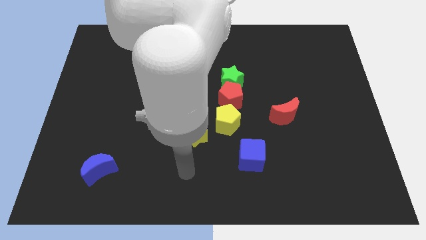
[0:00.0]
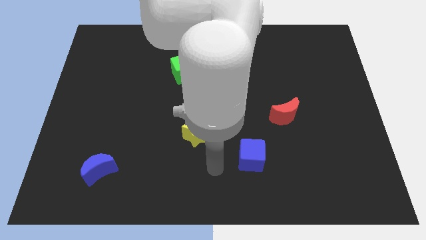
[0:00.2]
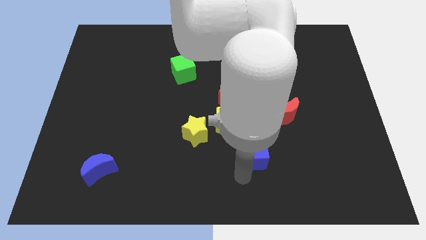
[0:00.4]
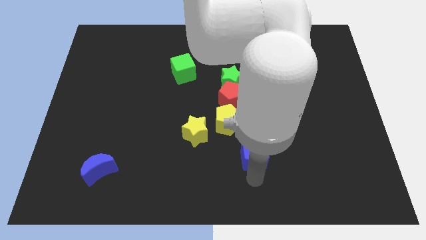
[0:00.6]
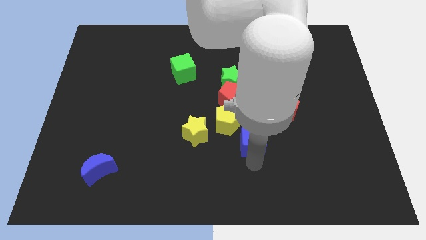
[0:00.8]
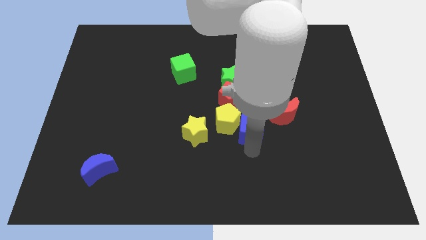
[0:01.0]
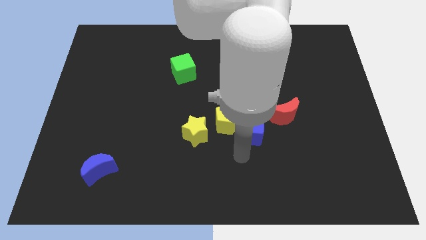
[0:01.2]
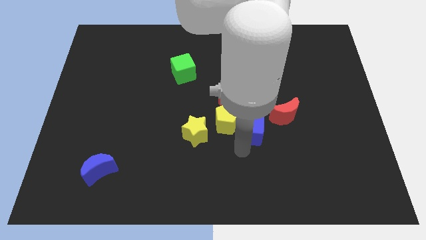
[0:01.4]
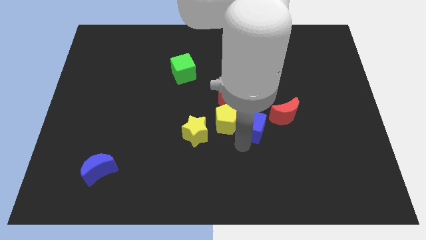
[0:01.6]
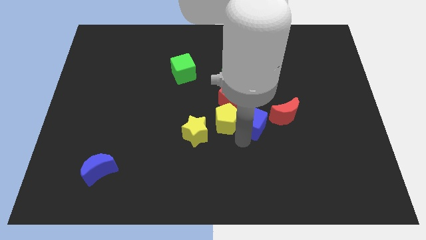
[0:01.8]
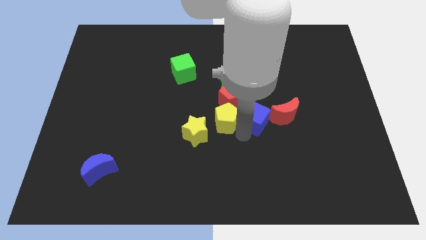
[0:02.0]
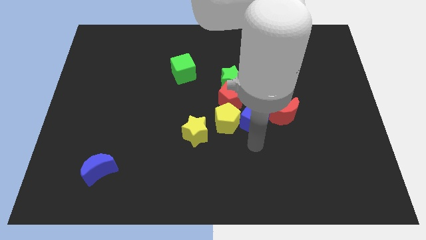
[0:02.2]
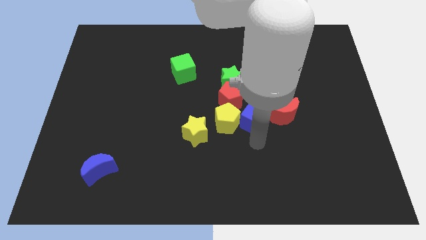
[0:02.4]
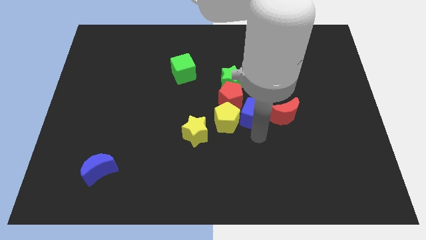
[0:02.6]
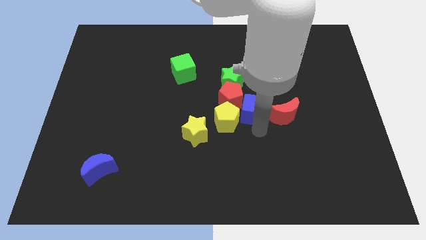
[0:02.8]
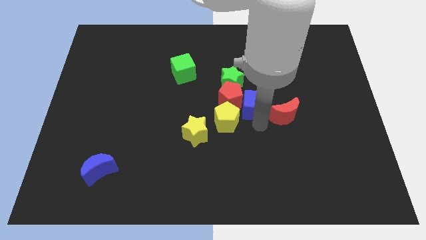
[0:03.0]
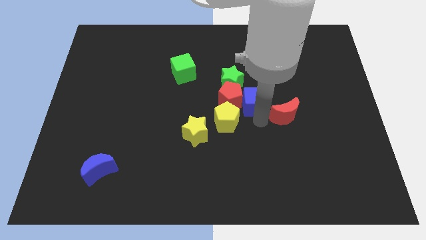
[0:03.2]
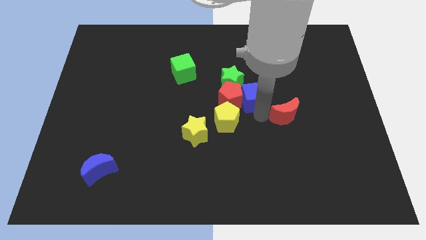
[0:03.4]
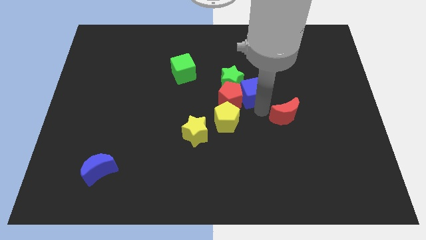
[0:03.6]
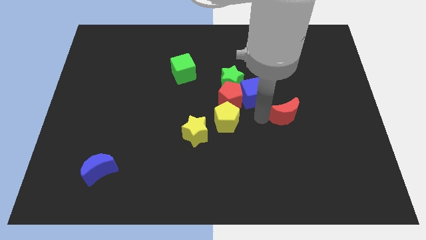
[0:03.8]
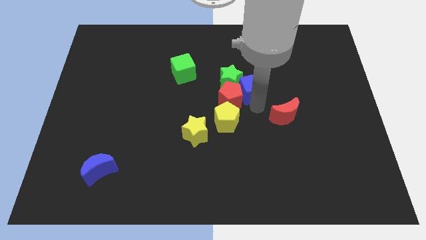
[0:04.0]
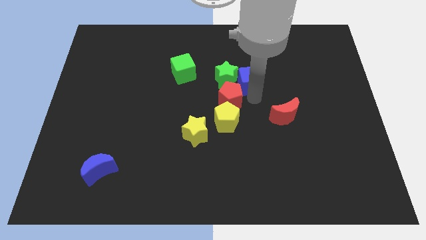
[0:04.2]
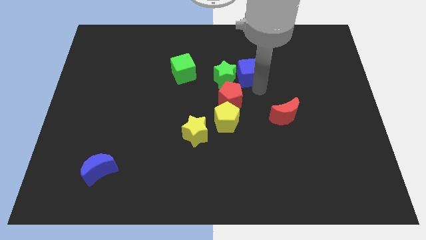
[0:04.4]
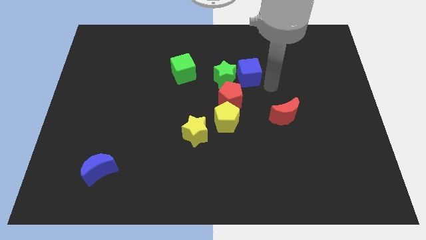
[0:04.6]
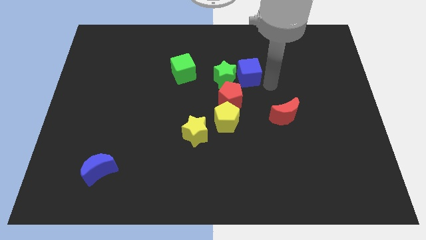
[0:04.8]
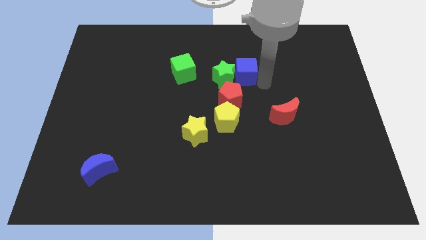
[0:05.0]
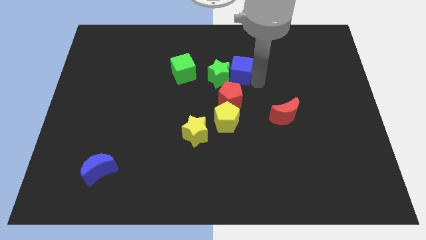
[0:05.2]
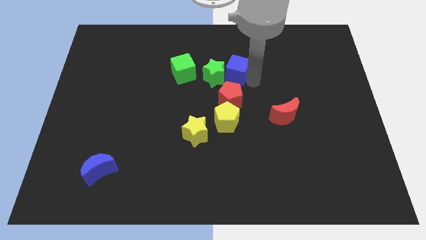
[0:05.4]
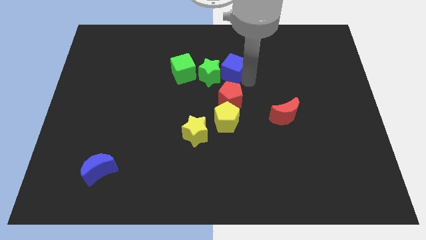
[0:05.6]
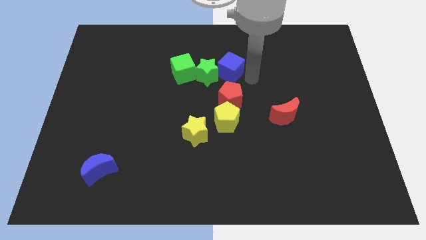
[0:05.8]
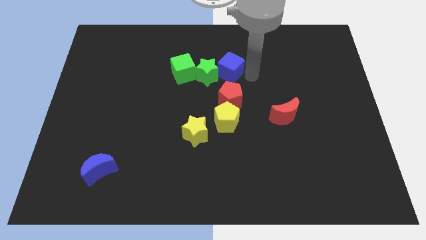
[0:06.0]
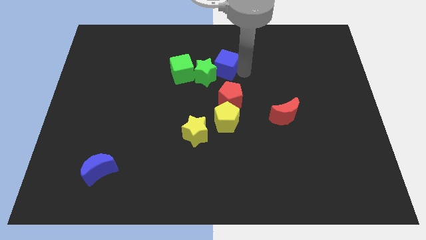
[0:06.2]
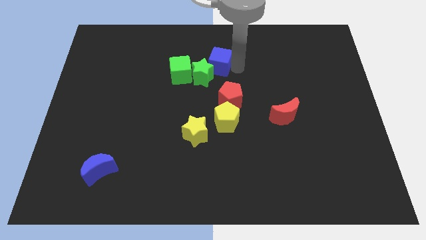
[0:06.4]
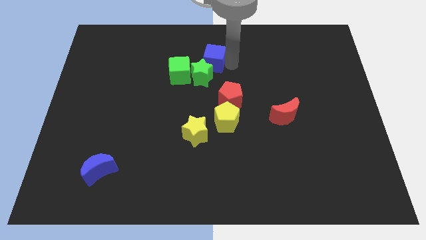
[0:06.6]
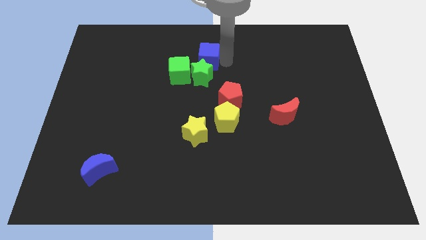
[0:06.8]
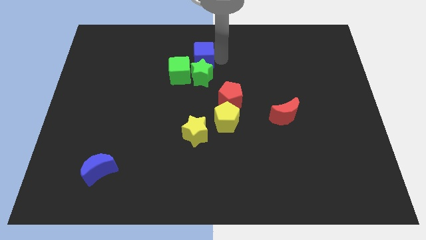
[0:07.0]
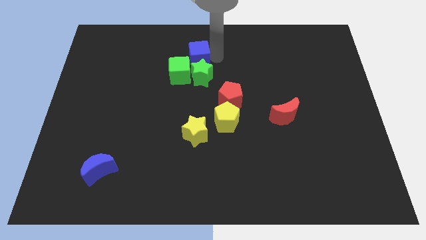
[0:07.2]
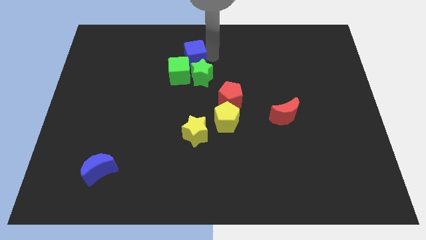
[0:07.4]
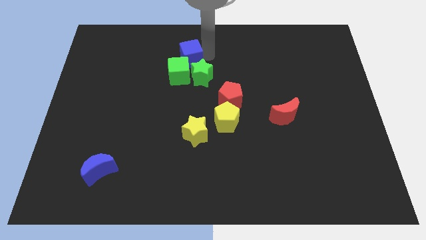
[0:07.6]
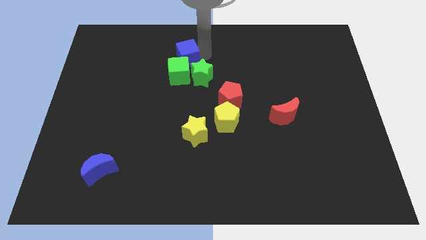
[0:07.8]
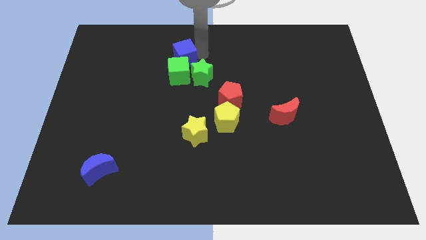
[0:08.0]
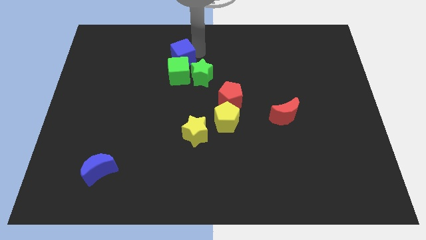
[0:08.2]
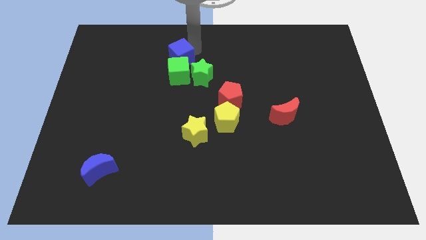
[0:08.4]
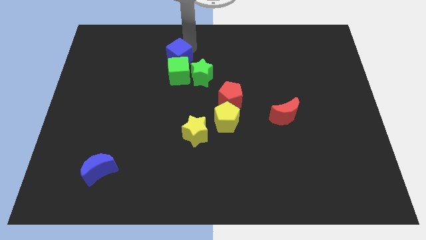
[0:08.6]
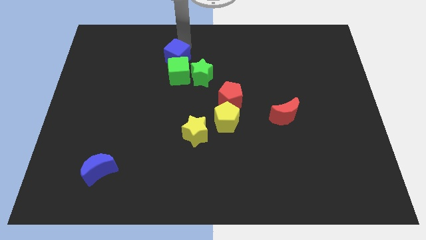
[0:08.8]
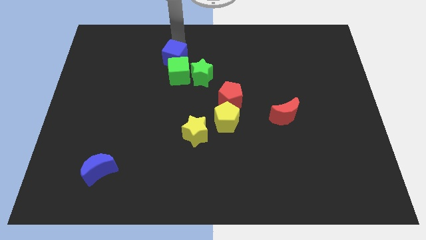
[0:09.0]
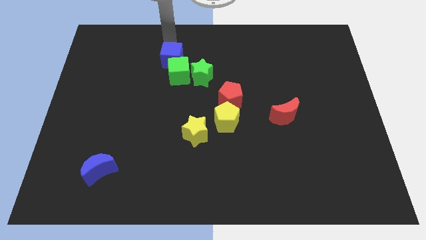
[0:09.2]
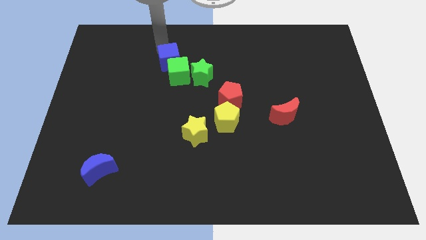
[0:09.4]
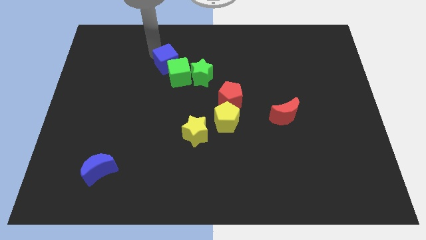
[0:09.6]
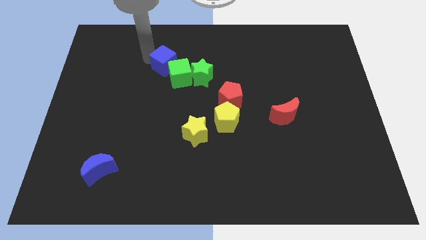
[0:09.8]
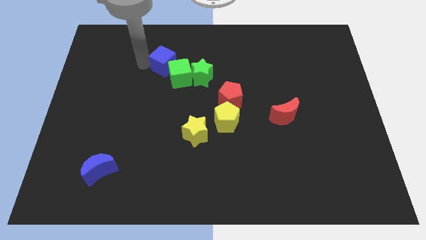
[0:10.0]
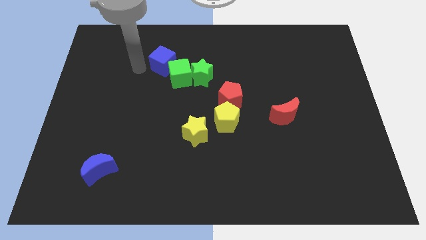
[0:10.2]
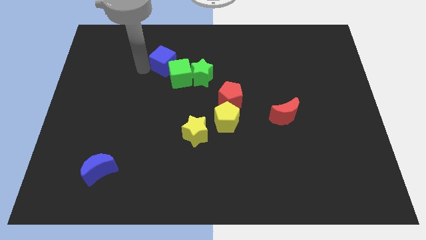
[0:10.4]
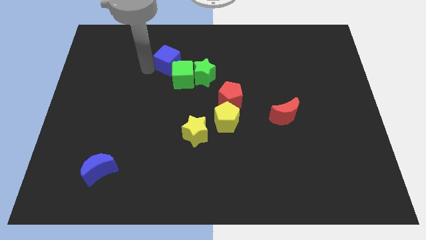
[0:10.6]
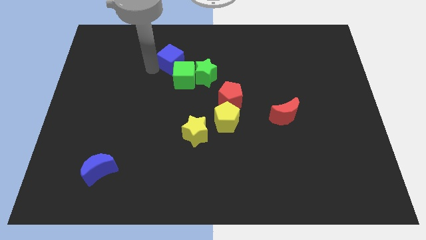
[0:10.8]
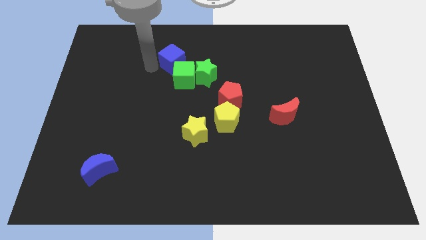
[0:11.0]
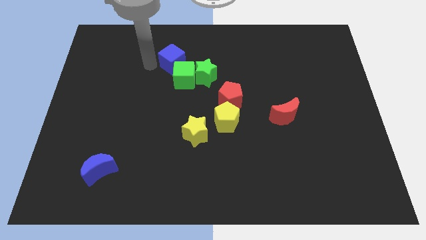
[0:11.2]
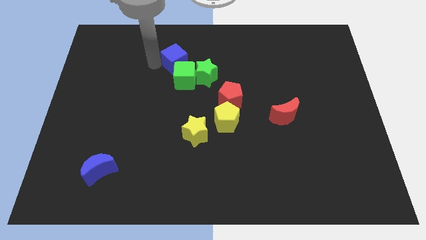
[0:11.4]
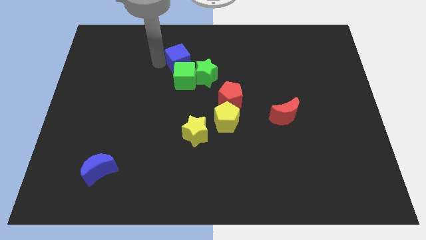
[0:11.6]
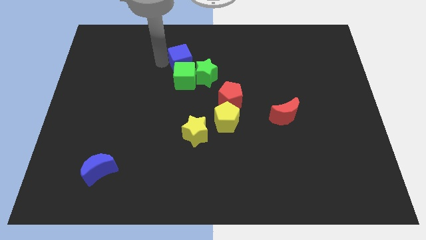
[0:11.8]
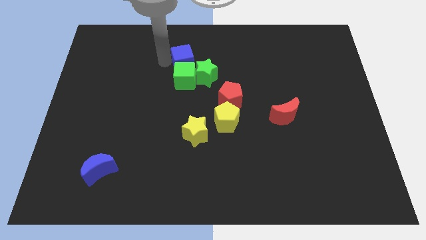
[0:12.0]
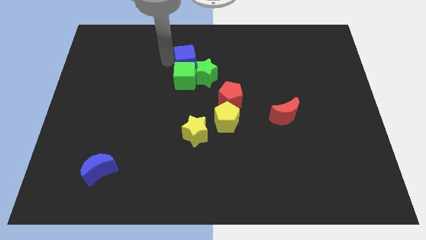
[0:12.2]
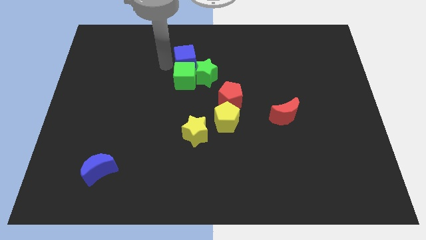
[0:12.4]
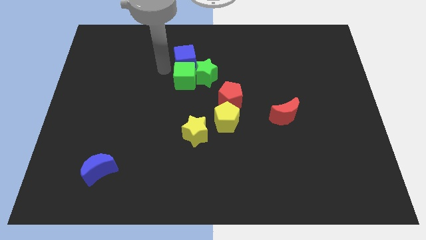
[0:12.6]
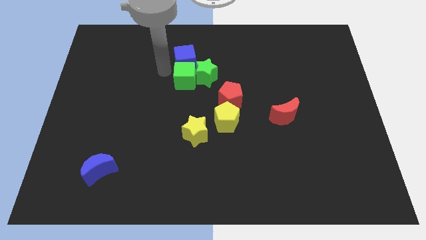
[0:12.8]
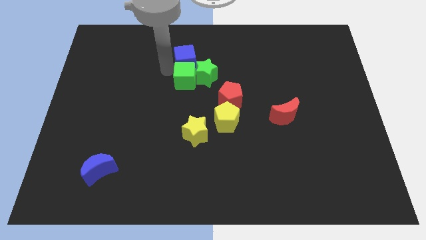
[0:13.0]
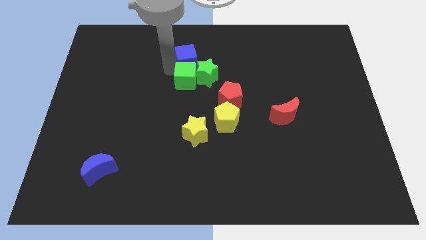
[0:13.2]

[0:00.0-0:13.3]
put the blue cube to the top left side of the green star

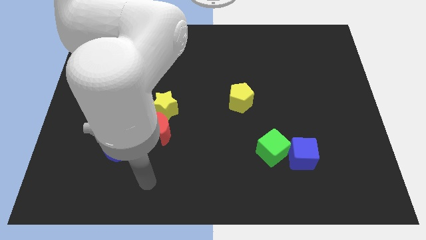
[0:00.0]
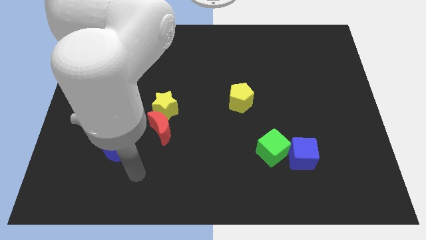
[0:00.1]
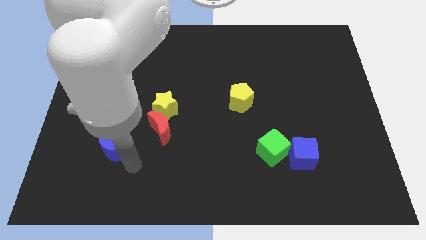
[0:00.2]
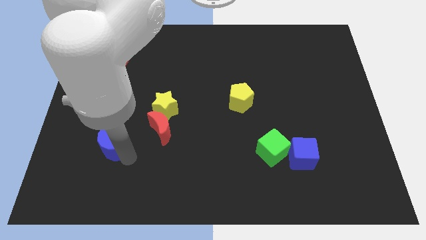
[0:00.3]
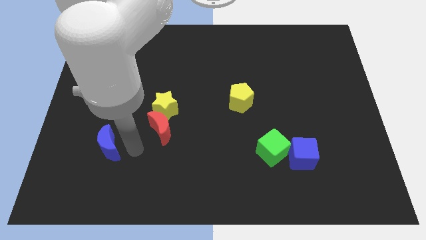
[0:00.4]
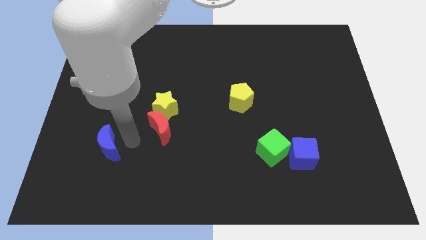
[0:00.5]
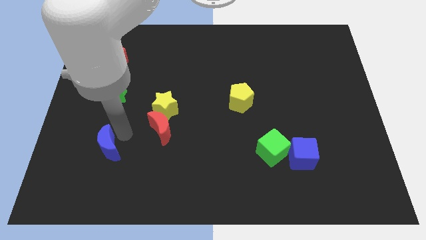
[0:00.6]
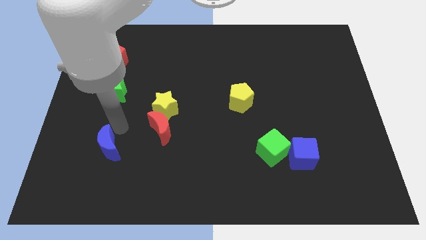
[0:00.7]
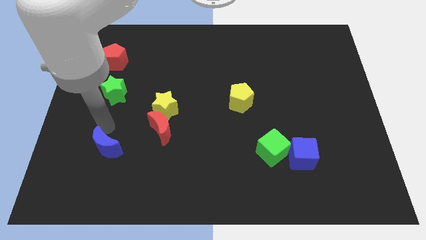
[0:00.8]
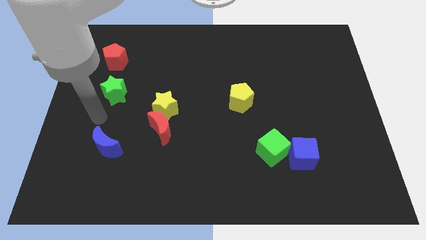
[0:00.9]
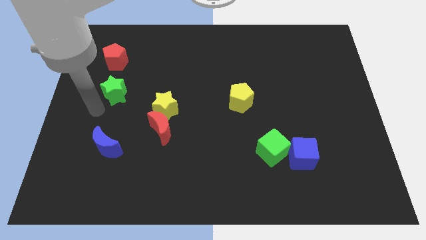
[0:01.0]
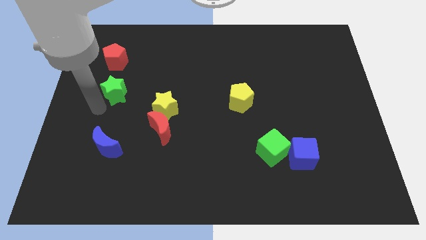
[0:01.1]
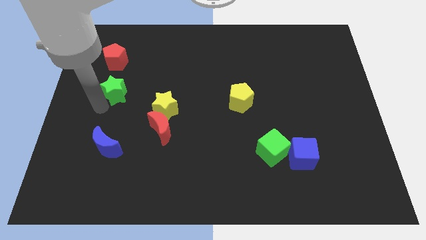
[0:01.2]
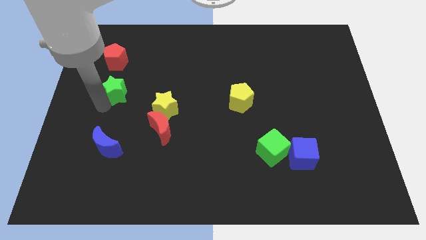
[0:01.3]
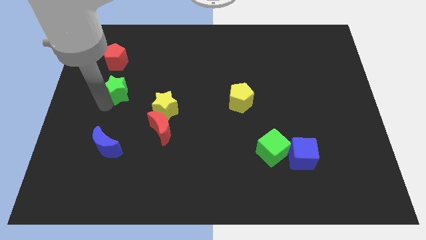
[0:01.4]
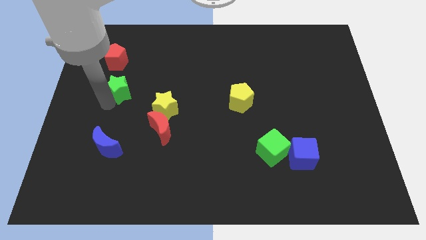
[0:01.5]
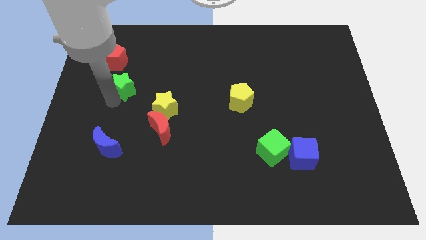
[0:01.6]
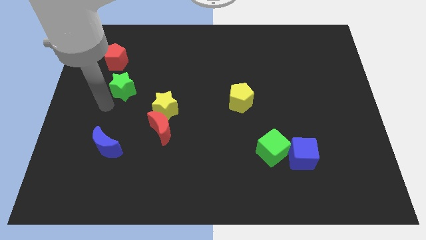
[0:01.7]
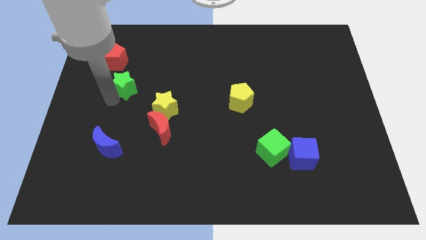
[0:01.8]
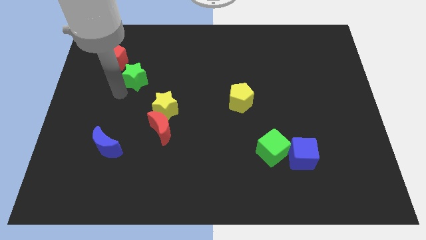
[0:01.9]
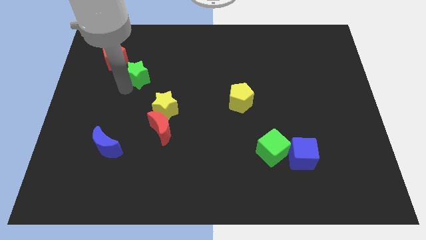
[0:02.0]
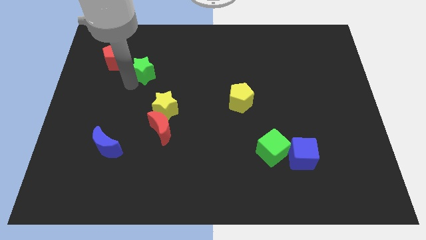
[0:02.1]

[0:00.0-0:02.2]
put the green star to the right of the red pentagon
